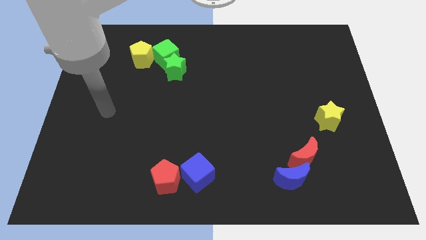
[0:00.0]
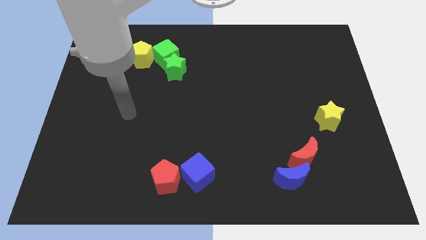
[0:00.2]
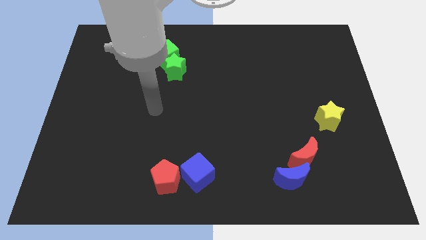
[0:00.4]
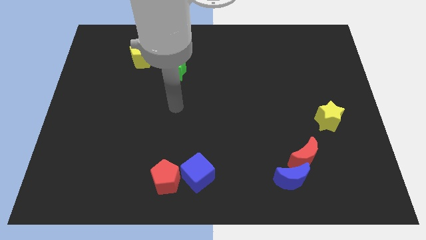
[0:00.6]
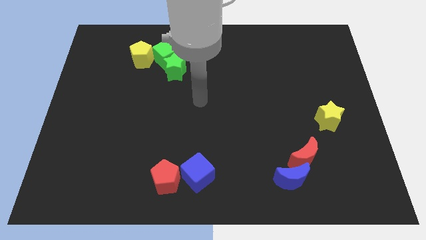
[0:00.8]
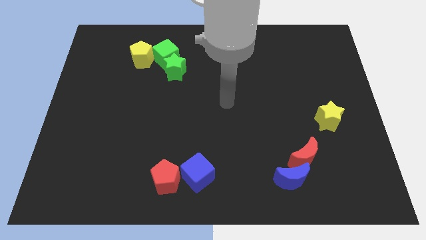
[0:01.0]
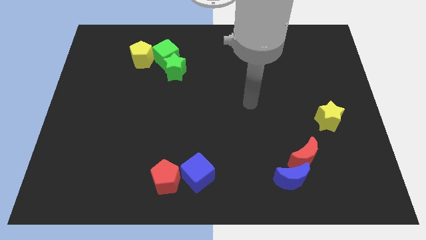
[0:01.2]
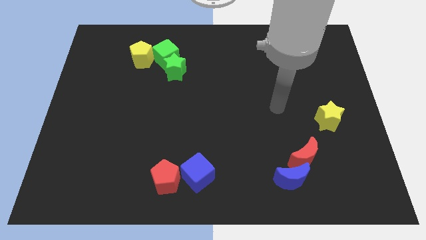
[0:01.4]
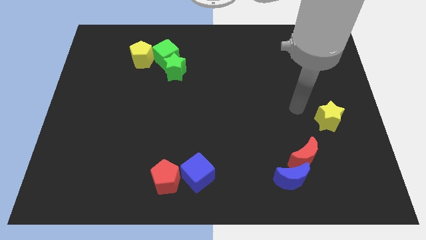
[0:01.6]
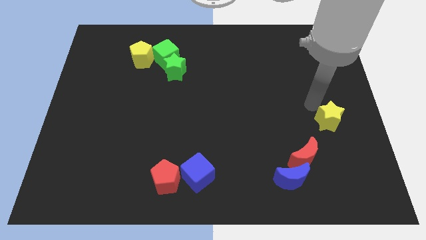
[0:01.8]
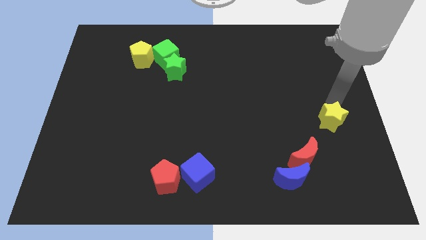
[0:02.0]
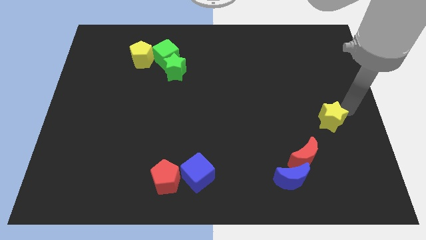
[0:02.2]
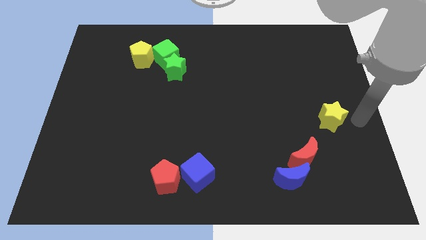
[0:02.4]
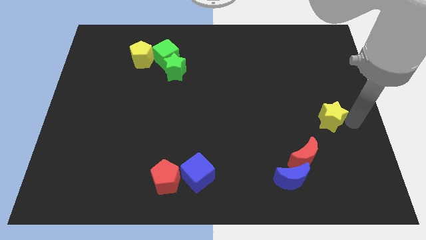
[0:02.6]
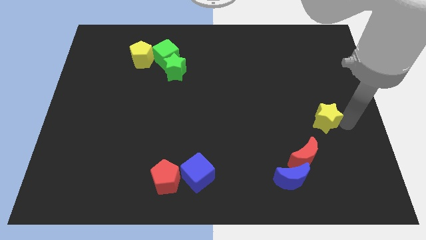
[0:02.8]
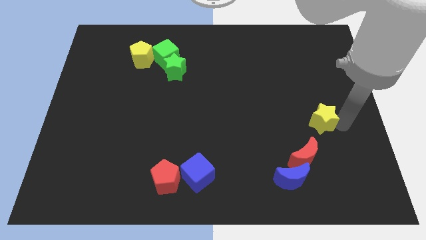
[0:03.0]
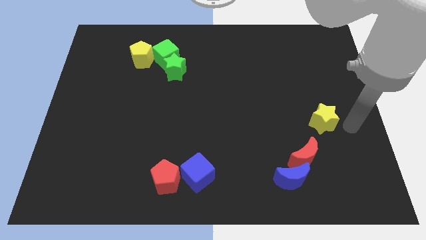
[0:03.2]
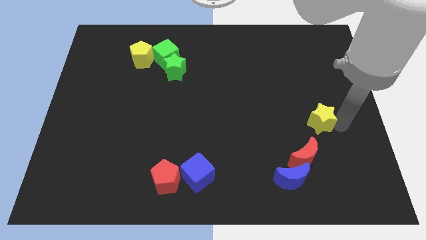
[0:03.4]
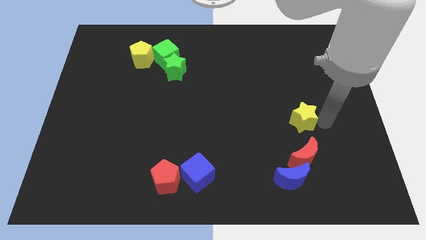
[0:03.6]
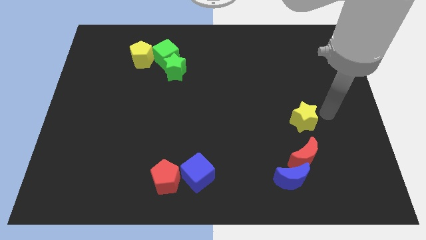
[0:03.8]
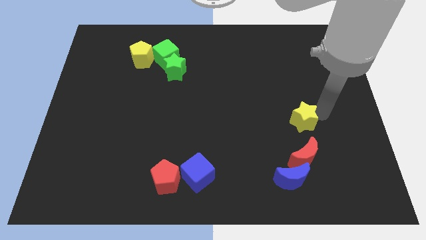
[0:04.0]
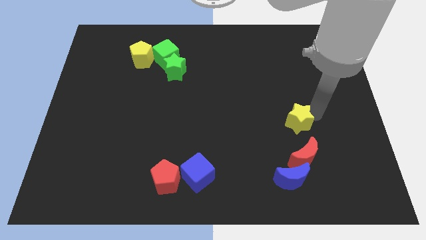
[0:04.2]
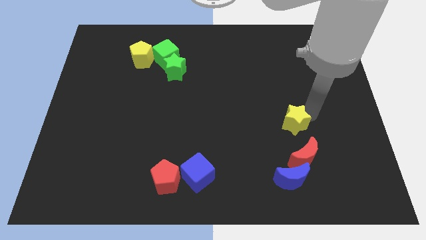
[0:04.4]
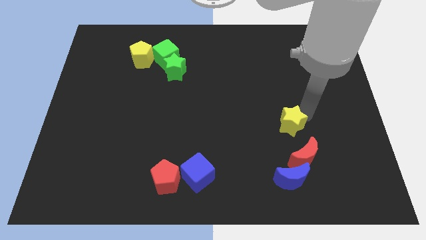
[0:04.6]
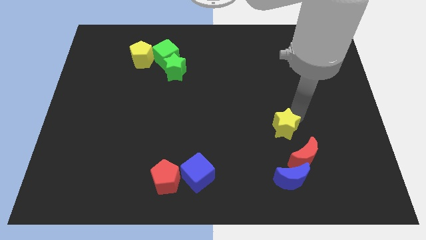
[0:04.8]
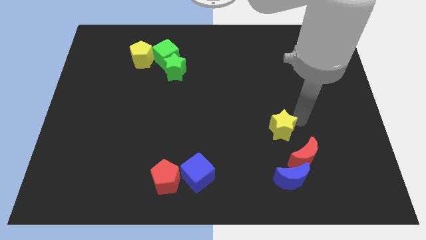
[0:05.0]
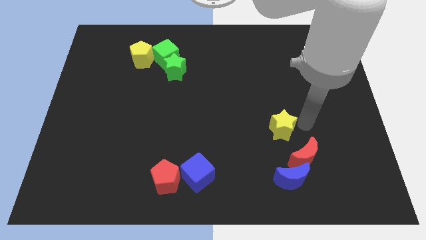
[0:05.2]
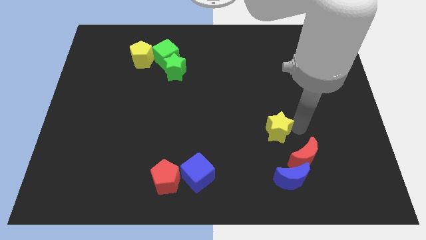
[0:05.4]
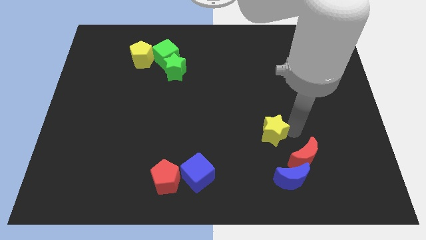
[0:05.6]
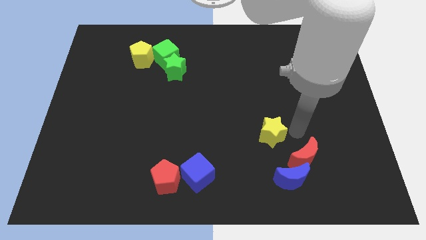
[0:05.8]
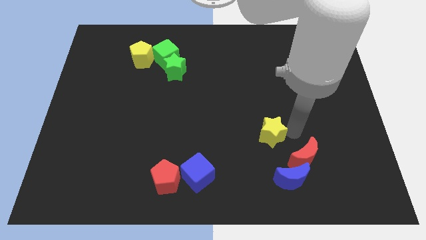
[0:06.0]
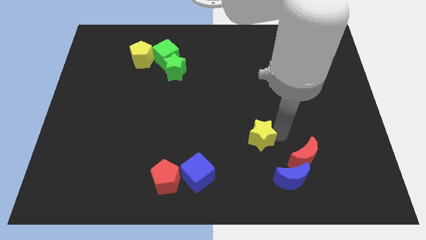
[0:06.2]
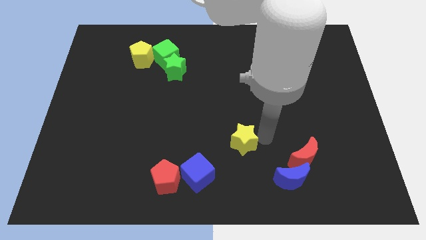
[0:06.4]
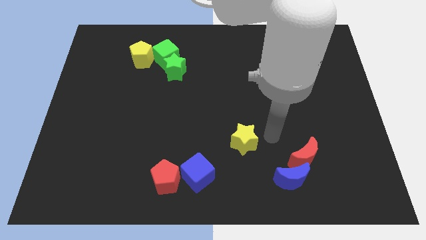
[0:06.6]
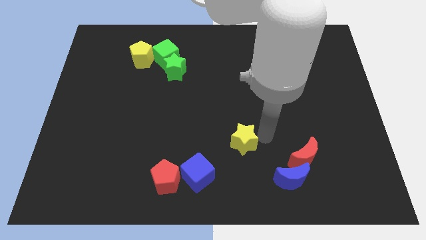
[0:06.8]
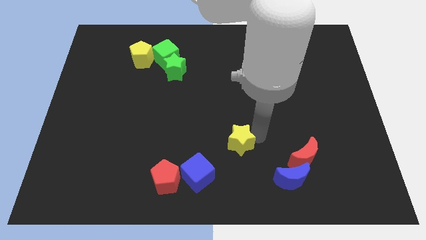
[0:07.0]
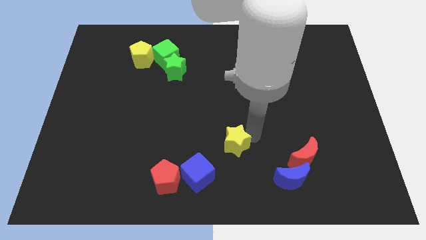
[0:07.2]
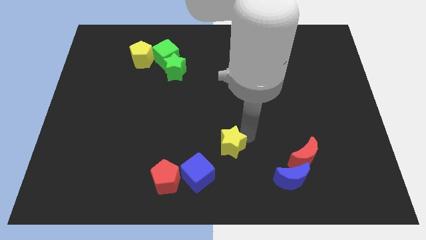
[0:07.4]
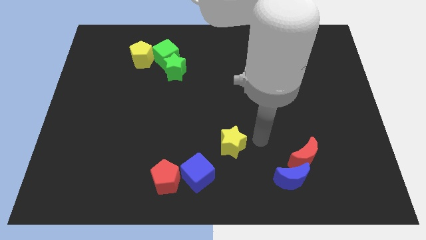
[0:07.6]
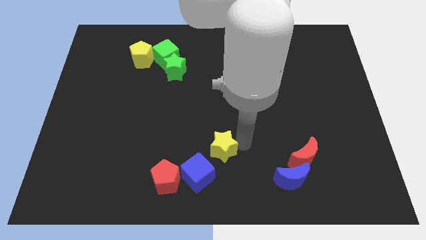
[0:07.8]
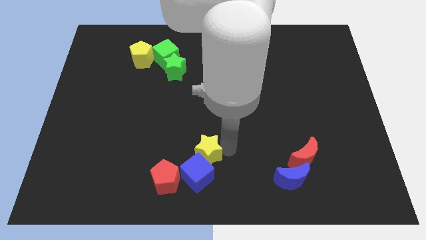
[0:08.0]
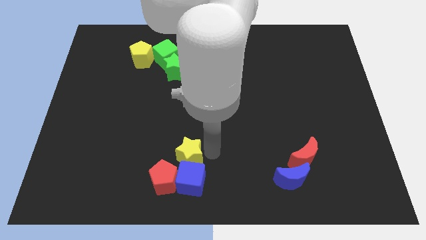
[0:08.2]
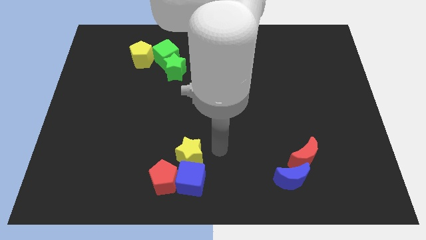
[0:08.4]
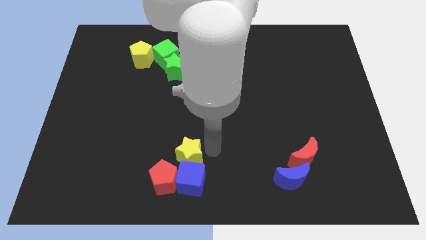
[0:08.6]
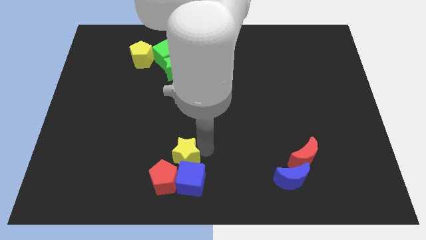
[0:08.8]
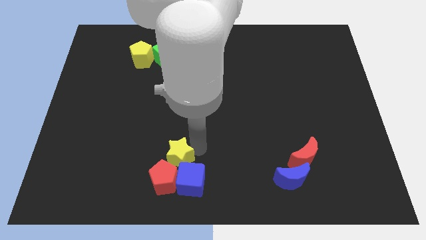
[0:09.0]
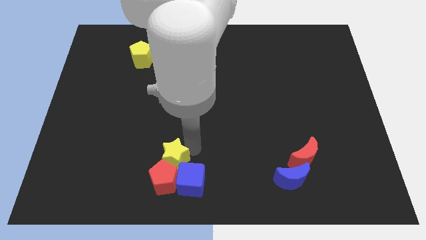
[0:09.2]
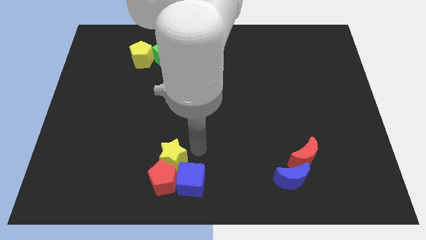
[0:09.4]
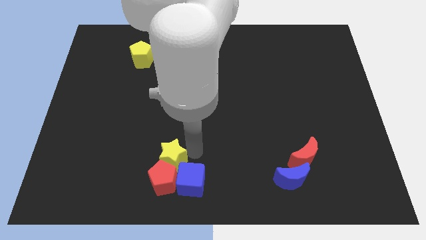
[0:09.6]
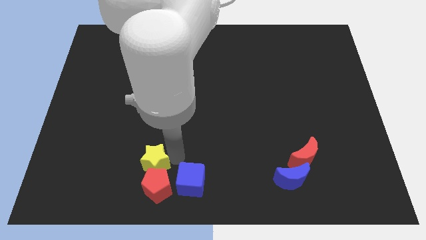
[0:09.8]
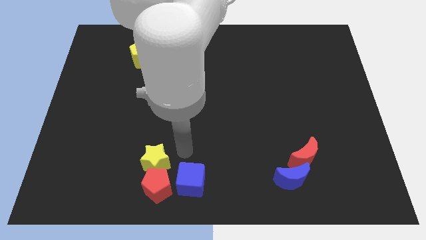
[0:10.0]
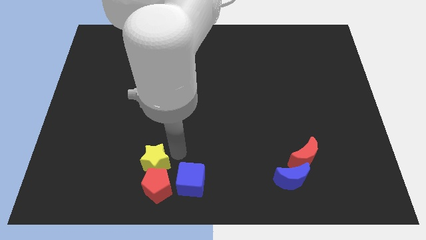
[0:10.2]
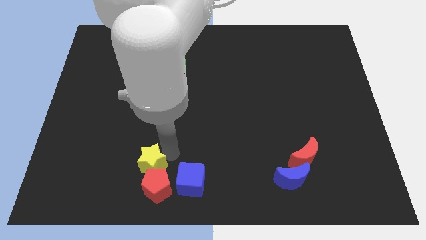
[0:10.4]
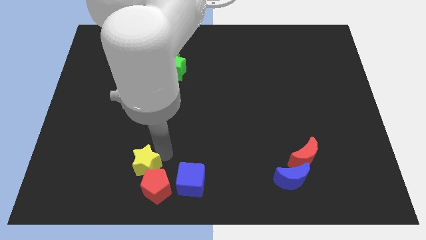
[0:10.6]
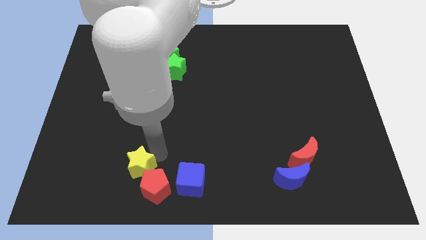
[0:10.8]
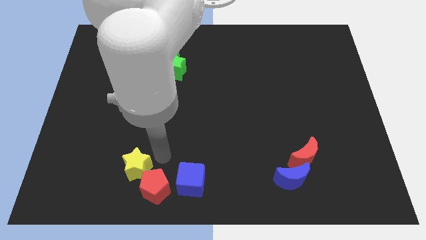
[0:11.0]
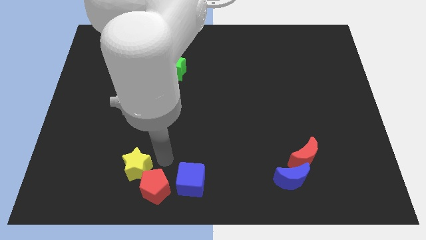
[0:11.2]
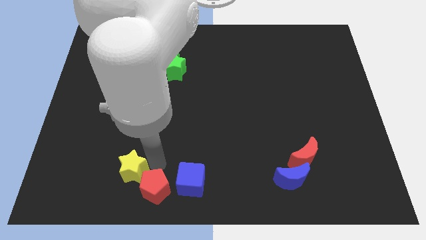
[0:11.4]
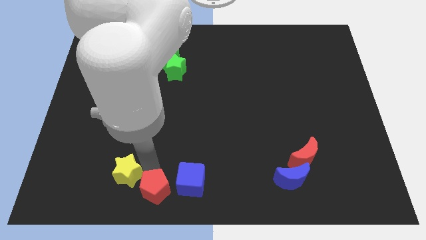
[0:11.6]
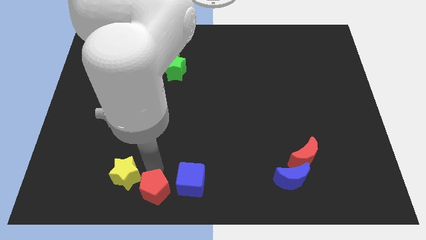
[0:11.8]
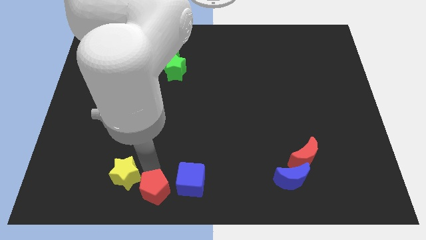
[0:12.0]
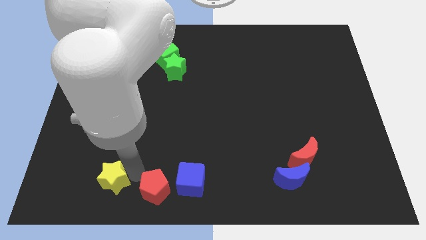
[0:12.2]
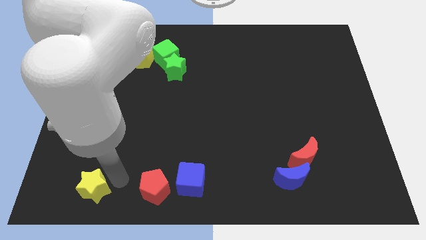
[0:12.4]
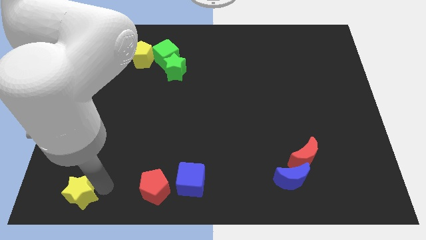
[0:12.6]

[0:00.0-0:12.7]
move the yellow star to the bottom left

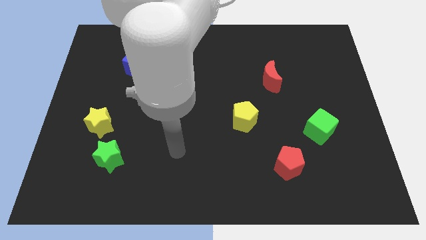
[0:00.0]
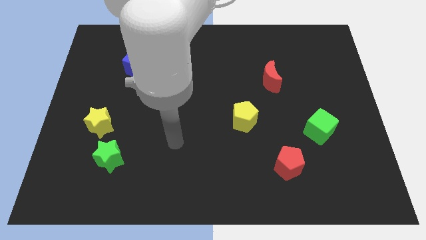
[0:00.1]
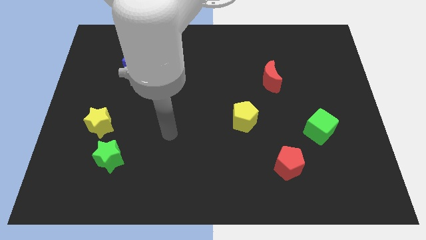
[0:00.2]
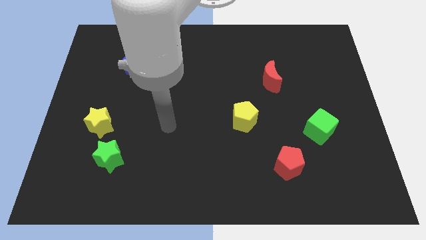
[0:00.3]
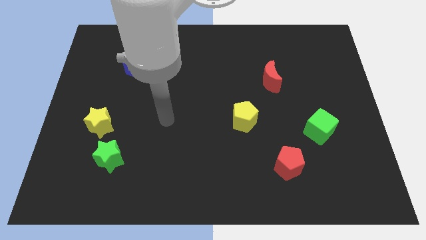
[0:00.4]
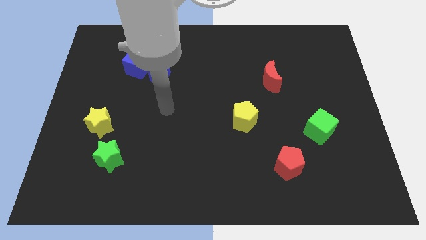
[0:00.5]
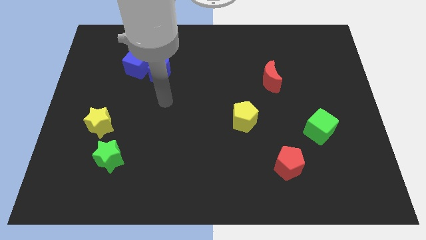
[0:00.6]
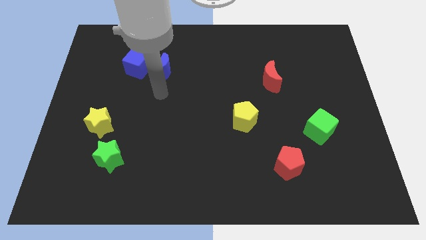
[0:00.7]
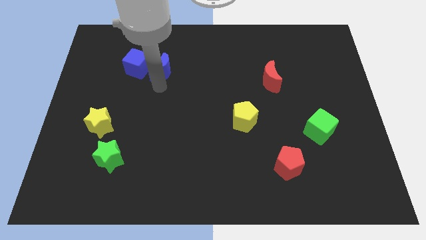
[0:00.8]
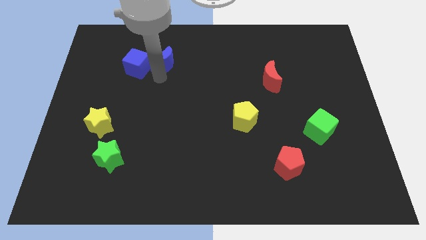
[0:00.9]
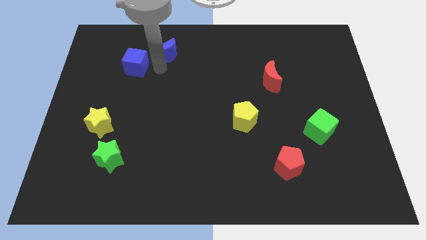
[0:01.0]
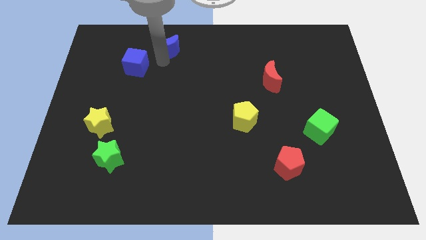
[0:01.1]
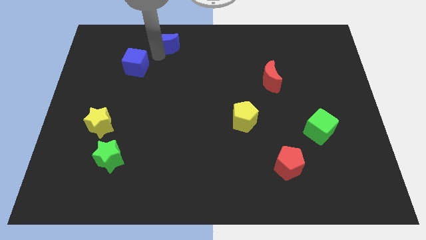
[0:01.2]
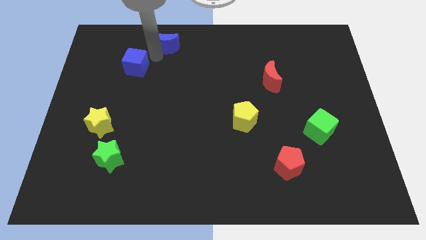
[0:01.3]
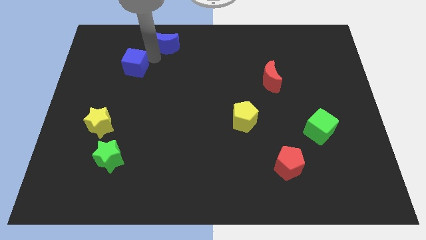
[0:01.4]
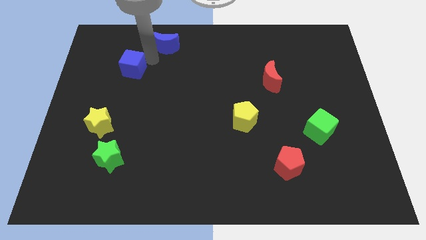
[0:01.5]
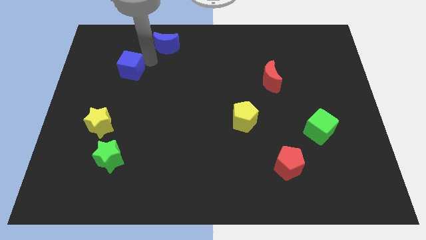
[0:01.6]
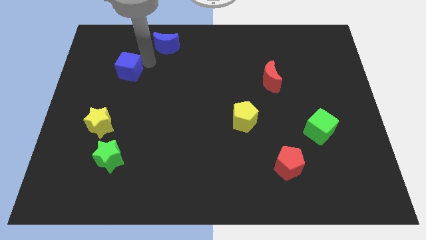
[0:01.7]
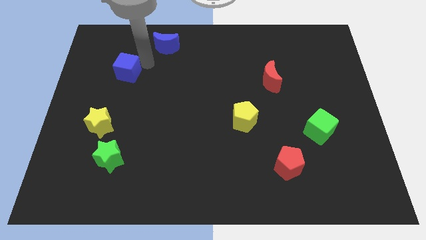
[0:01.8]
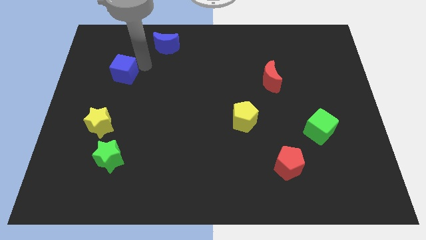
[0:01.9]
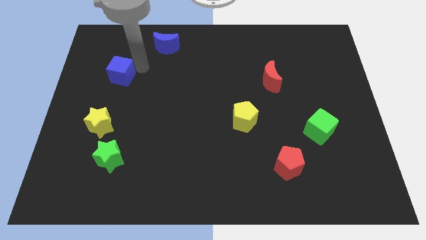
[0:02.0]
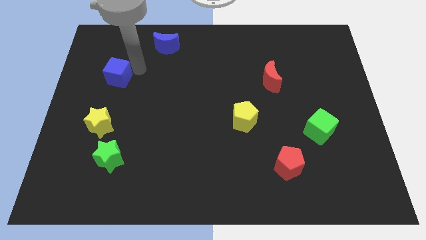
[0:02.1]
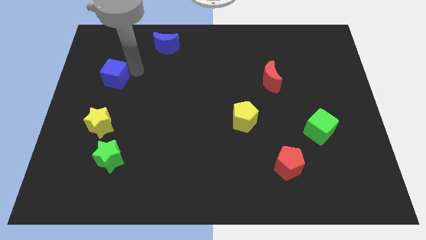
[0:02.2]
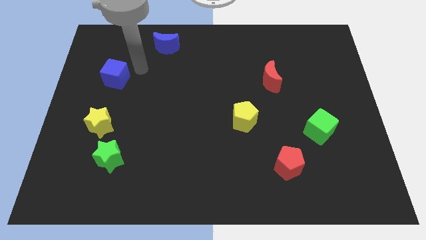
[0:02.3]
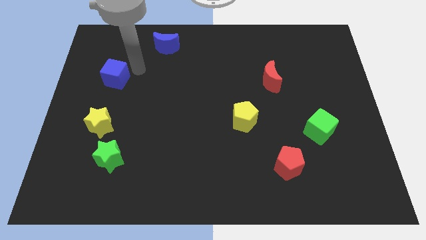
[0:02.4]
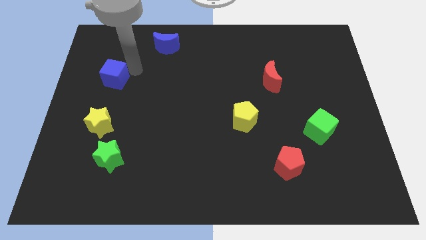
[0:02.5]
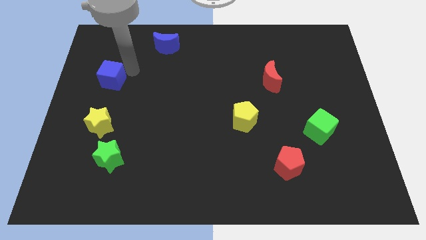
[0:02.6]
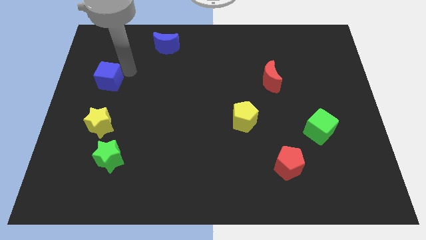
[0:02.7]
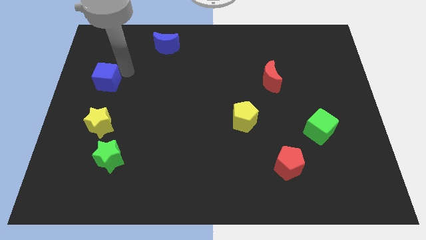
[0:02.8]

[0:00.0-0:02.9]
put the blue cube to the left side
